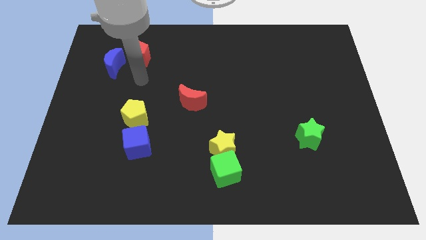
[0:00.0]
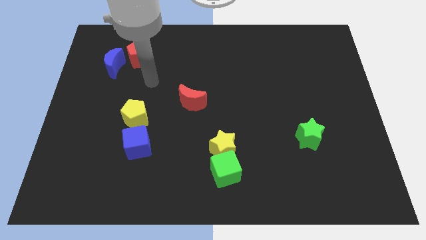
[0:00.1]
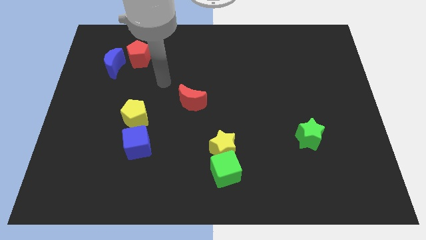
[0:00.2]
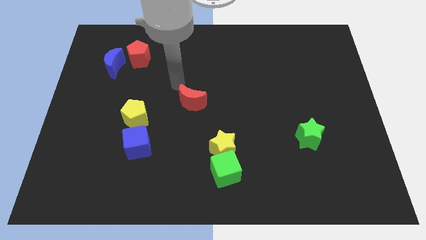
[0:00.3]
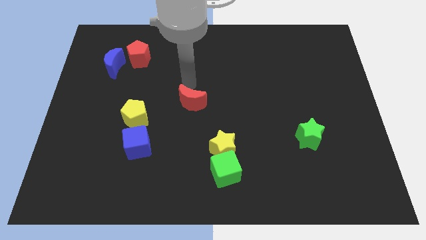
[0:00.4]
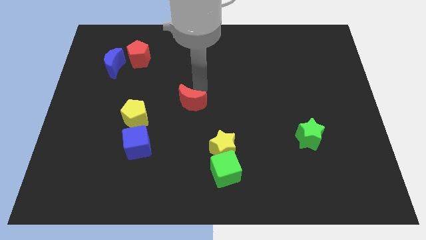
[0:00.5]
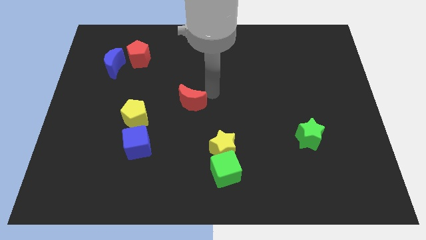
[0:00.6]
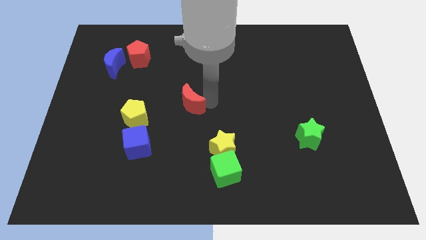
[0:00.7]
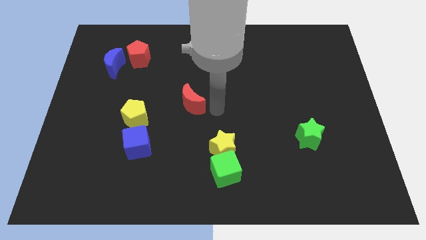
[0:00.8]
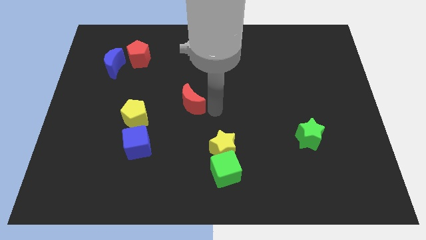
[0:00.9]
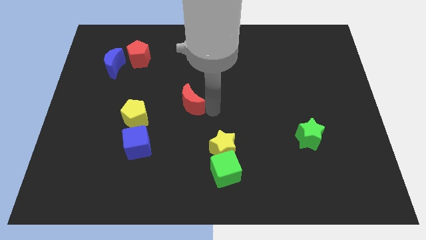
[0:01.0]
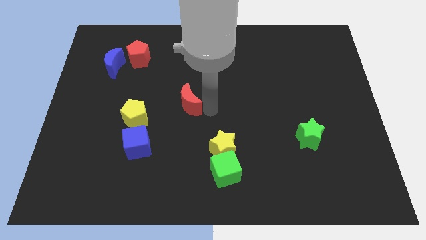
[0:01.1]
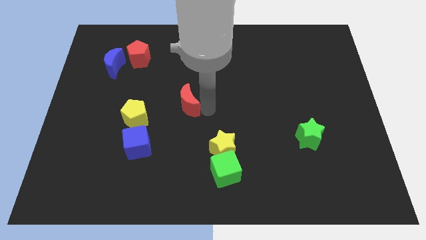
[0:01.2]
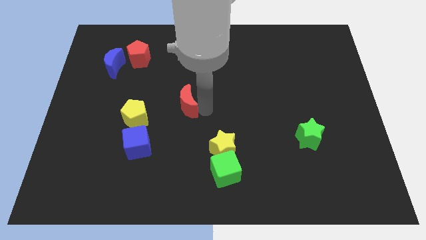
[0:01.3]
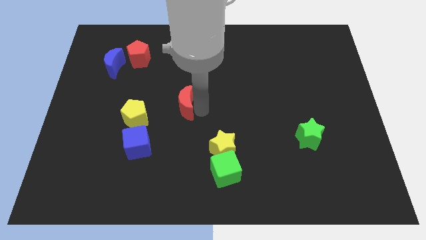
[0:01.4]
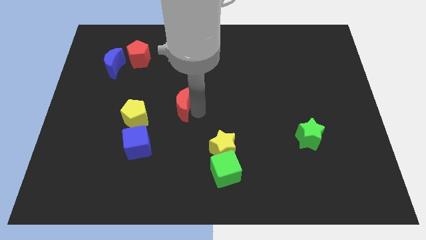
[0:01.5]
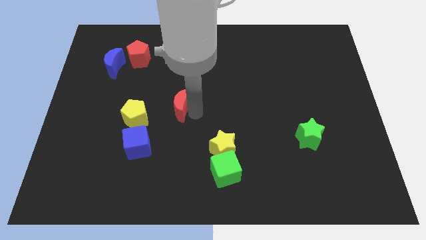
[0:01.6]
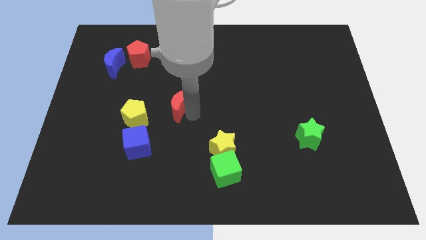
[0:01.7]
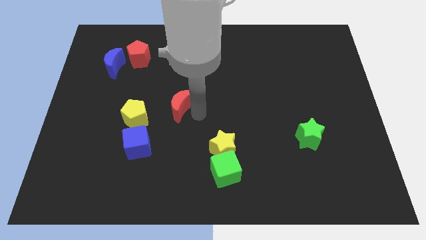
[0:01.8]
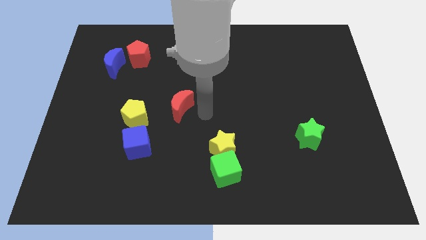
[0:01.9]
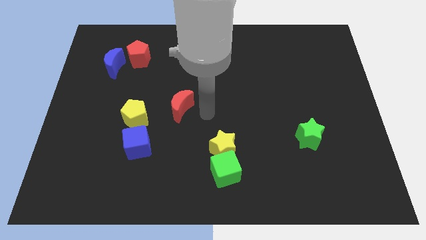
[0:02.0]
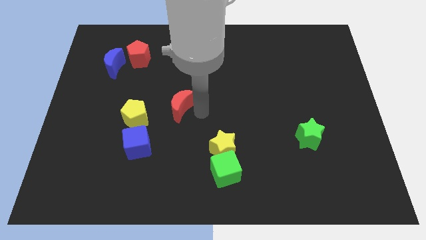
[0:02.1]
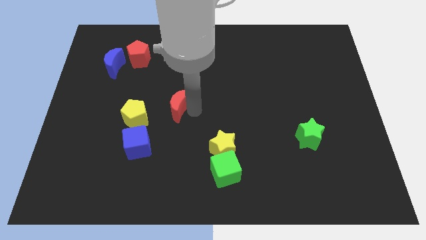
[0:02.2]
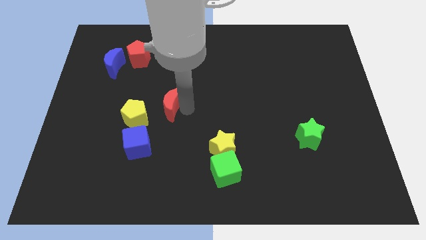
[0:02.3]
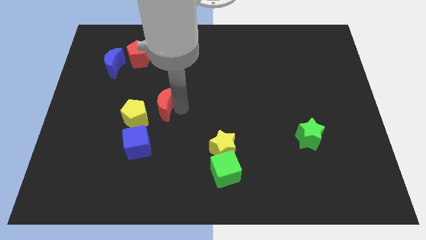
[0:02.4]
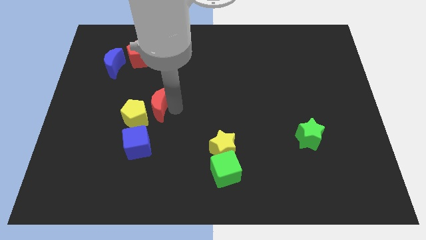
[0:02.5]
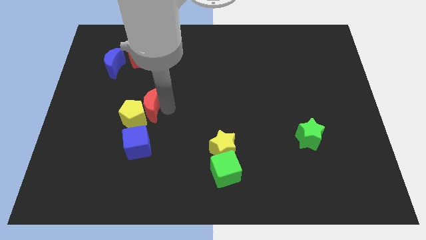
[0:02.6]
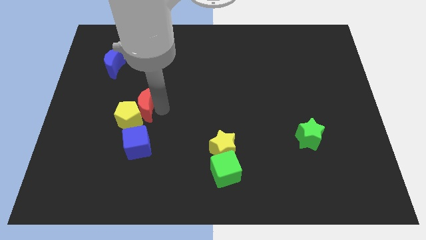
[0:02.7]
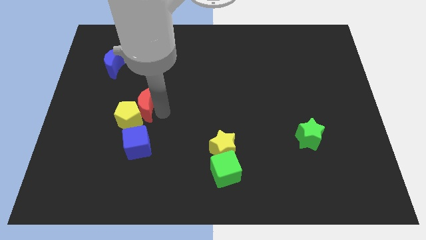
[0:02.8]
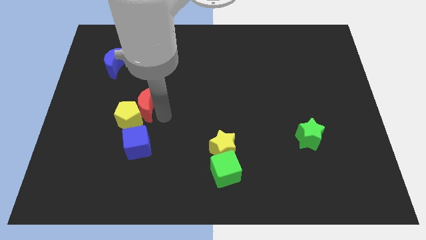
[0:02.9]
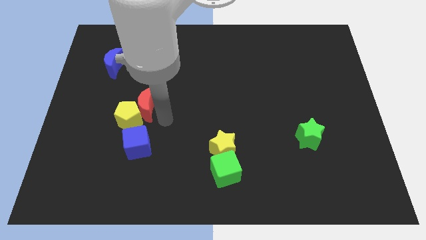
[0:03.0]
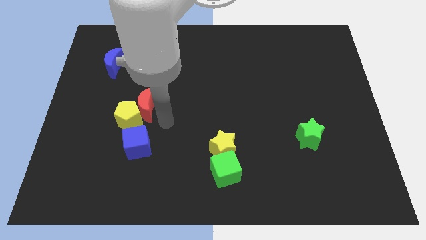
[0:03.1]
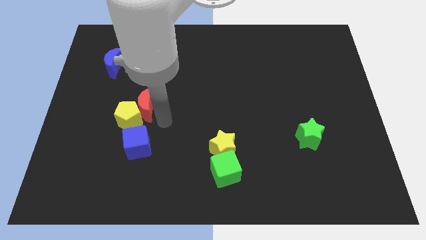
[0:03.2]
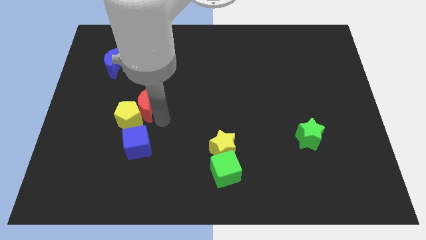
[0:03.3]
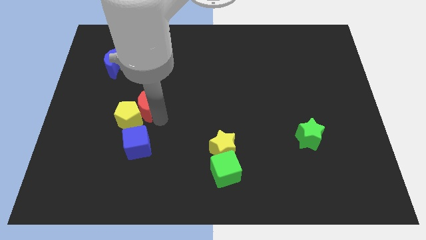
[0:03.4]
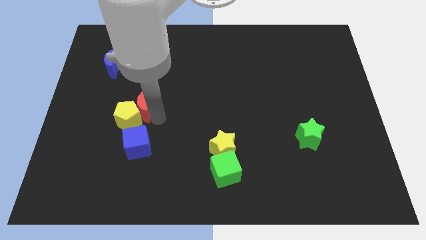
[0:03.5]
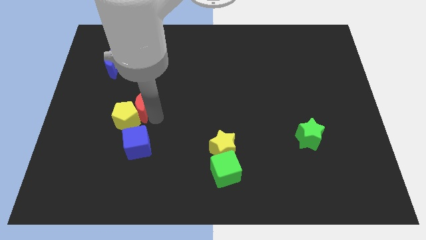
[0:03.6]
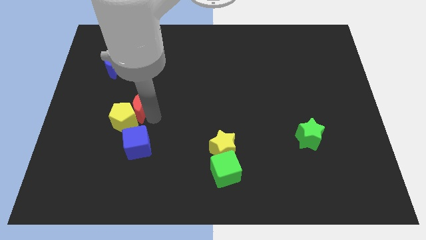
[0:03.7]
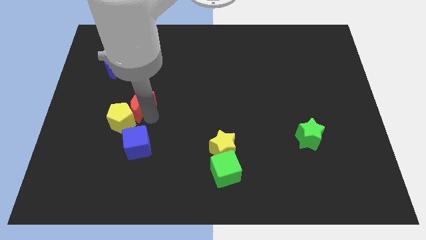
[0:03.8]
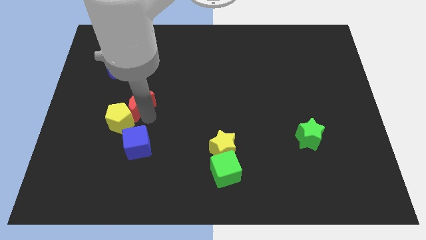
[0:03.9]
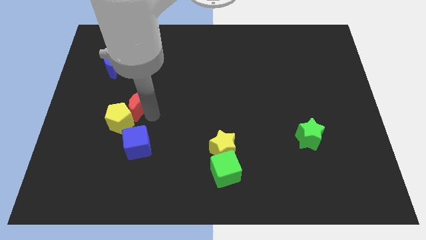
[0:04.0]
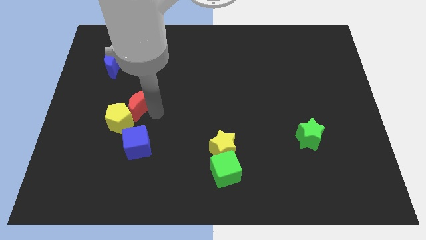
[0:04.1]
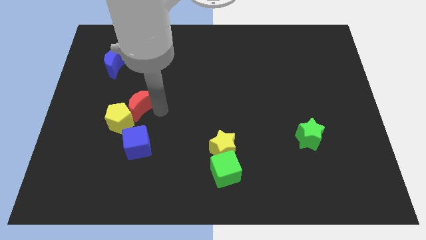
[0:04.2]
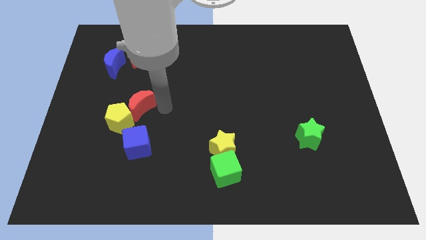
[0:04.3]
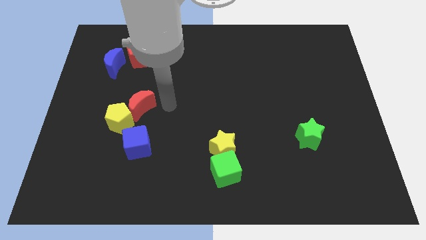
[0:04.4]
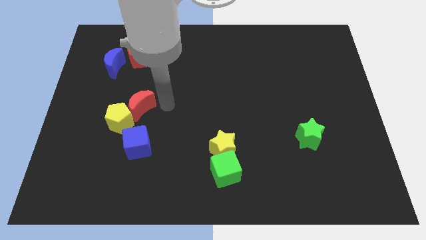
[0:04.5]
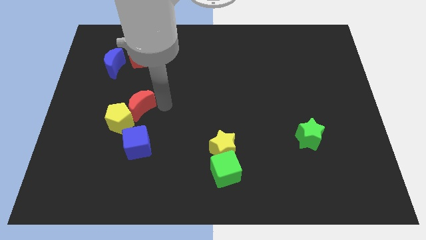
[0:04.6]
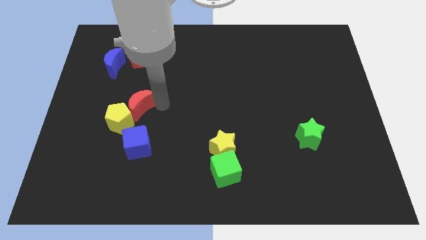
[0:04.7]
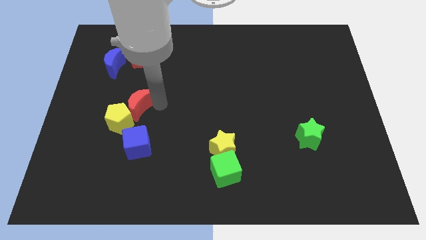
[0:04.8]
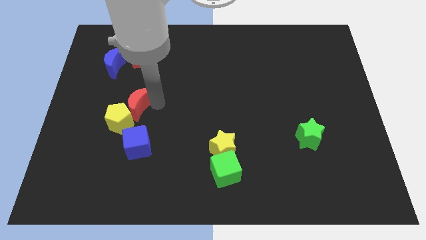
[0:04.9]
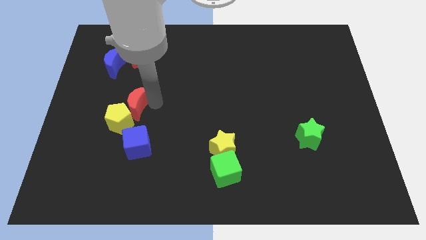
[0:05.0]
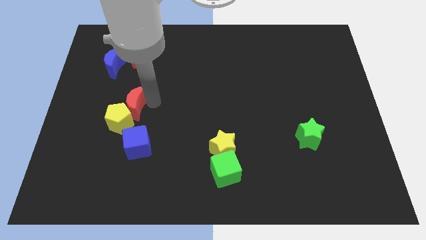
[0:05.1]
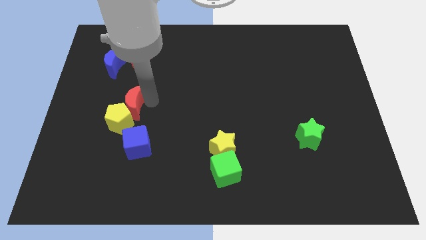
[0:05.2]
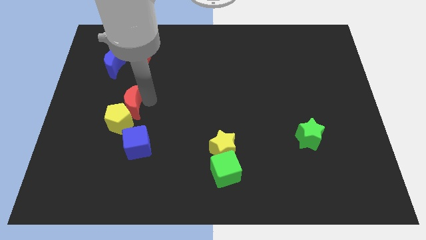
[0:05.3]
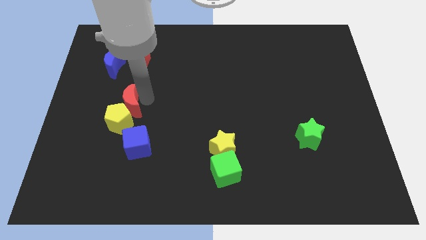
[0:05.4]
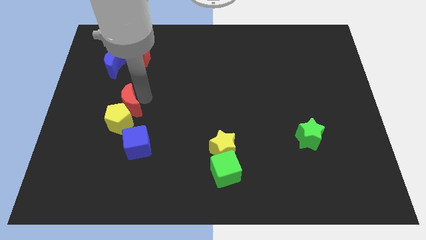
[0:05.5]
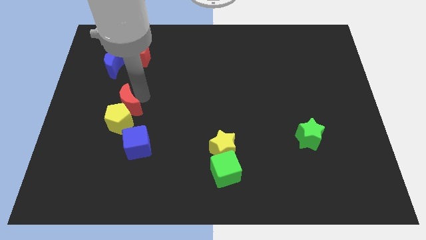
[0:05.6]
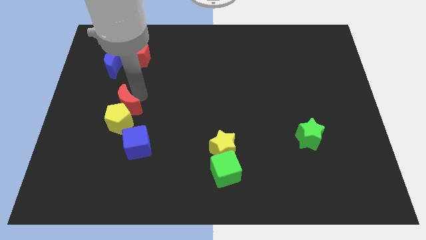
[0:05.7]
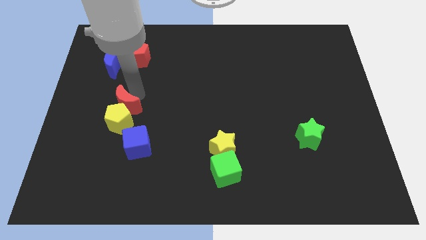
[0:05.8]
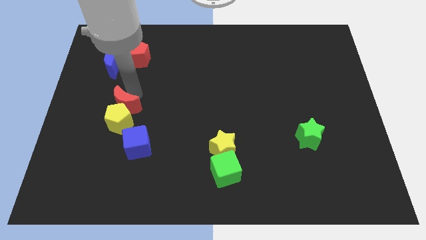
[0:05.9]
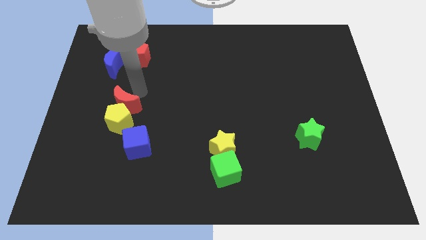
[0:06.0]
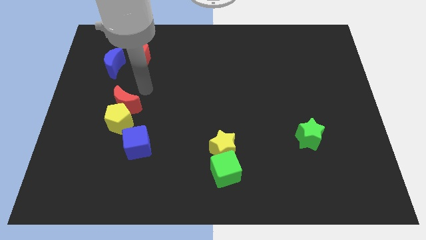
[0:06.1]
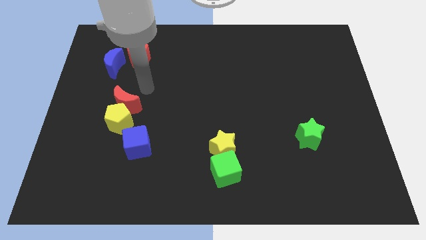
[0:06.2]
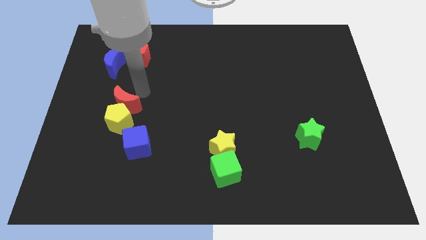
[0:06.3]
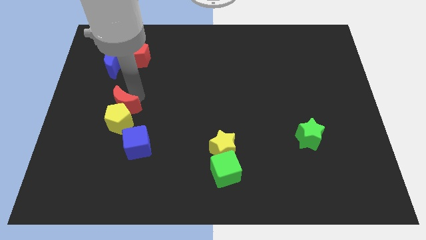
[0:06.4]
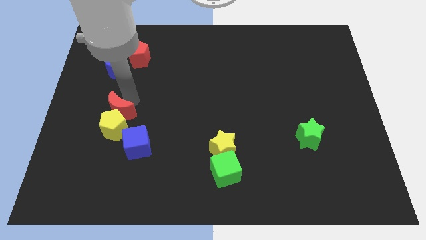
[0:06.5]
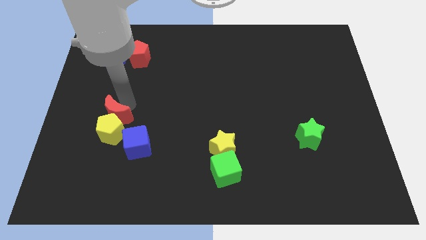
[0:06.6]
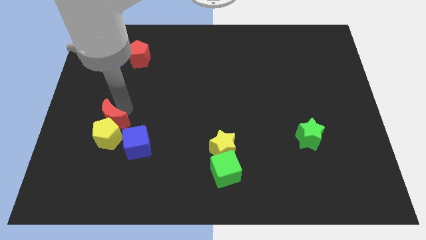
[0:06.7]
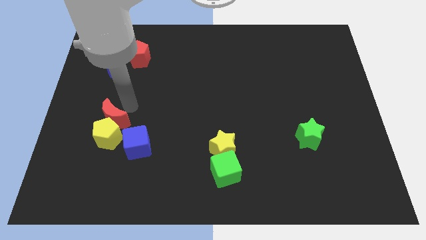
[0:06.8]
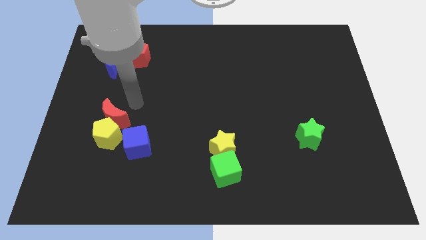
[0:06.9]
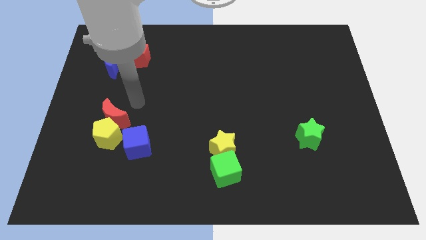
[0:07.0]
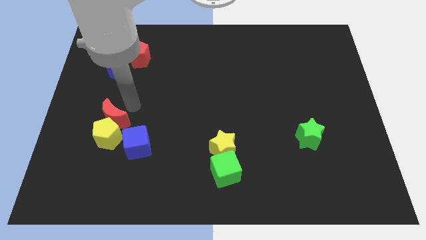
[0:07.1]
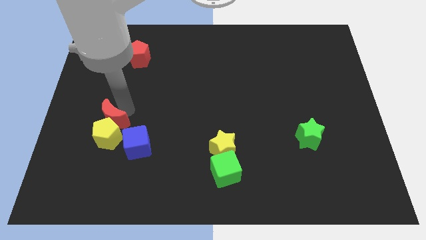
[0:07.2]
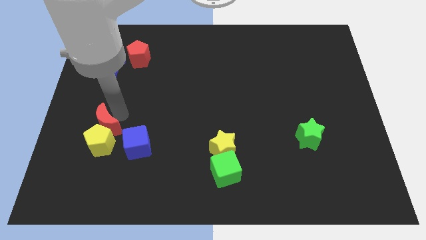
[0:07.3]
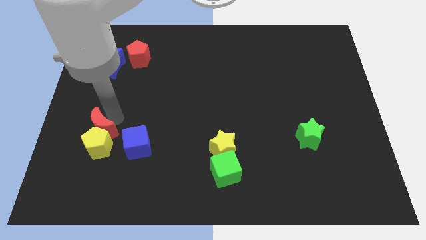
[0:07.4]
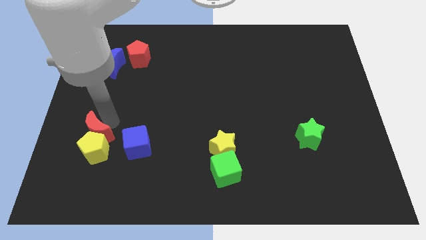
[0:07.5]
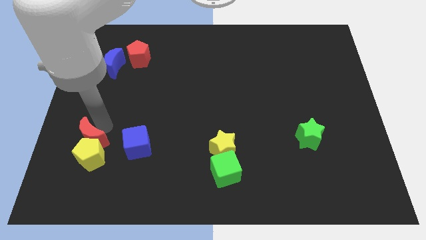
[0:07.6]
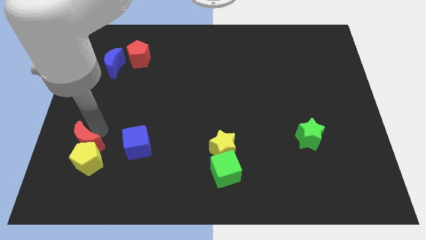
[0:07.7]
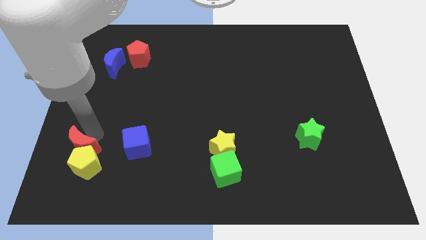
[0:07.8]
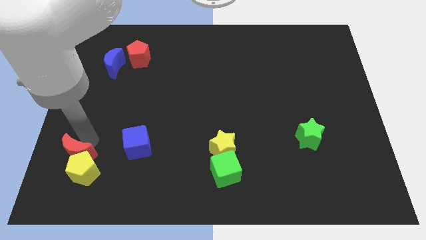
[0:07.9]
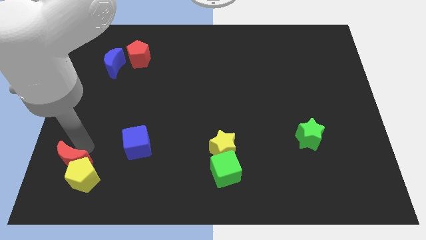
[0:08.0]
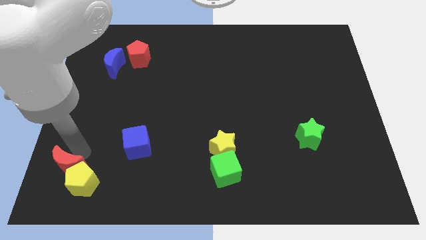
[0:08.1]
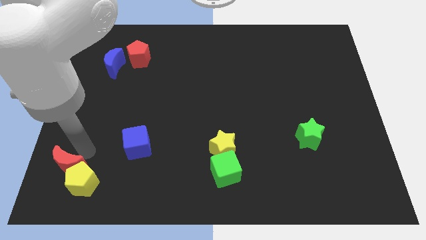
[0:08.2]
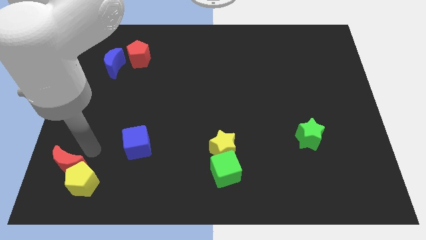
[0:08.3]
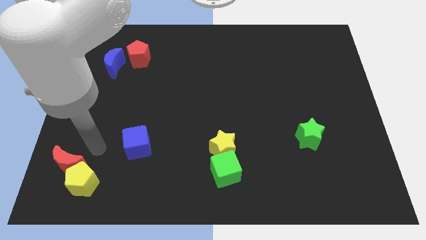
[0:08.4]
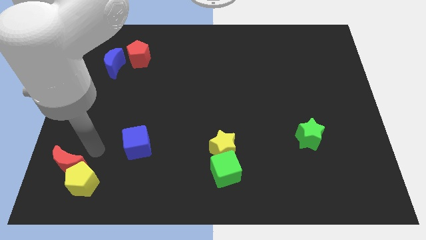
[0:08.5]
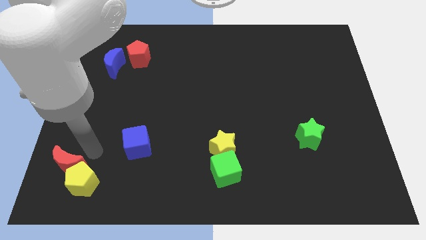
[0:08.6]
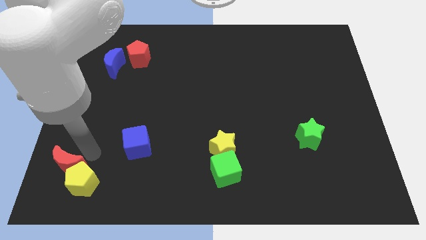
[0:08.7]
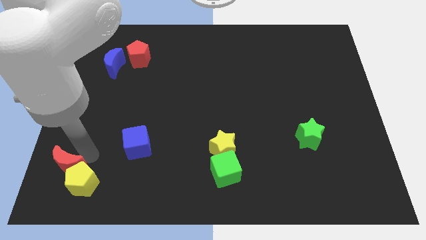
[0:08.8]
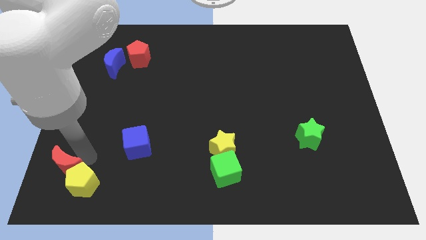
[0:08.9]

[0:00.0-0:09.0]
move the red moon to the bottom left
